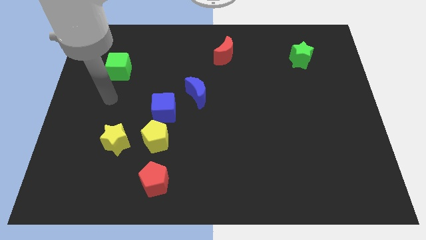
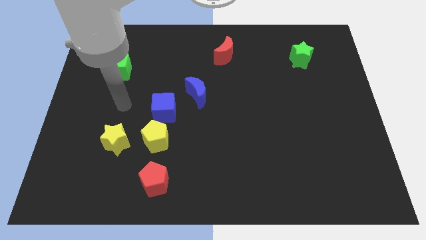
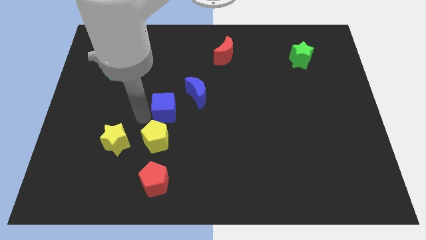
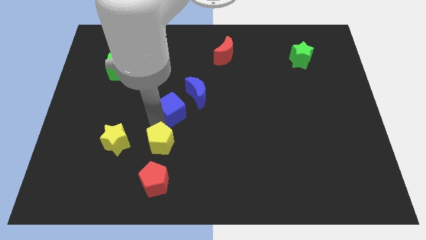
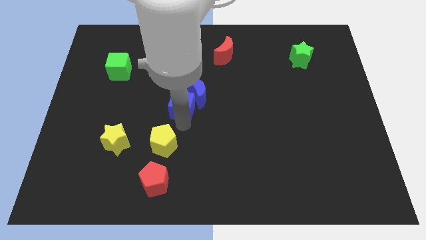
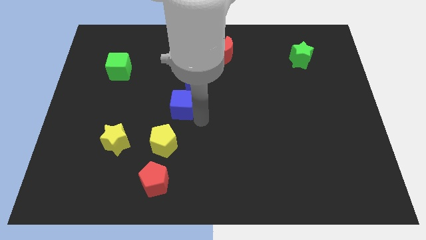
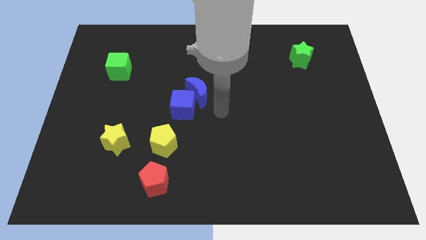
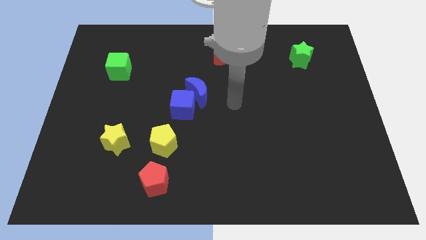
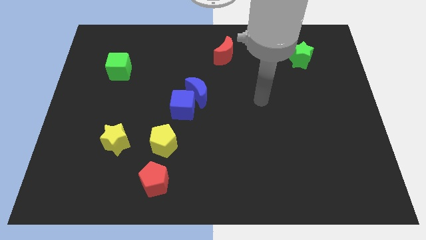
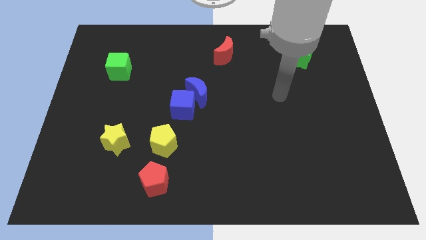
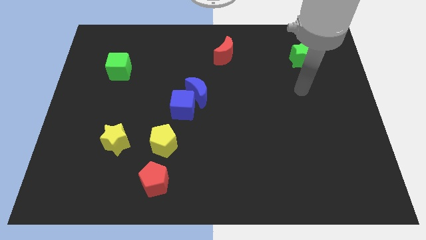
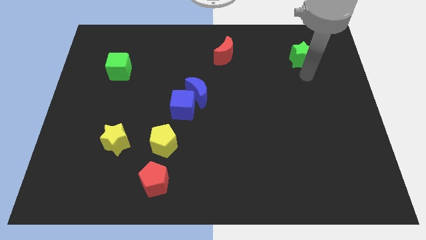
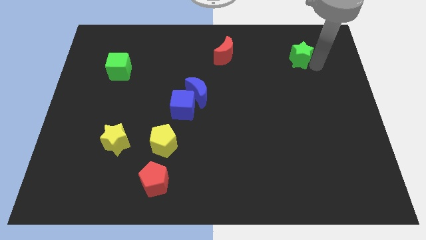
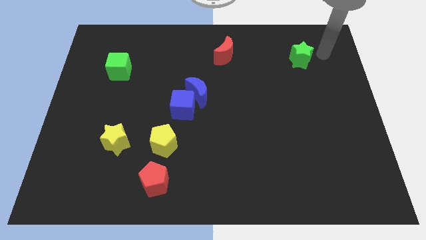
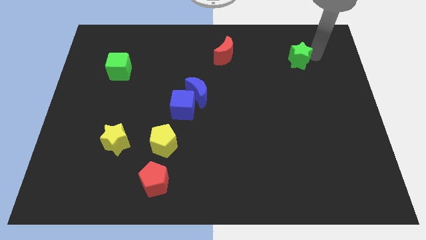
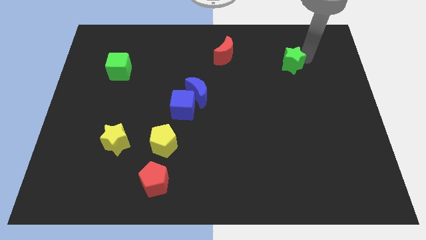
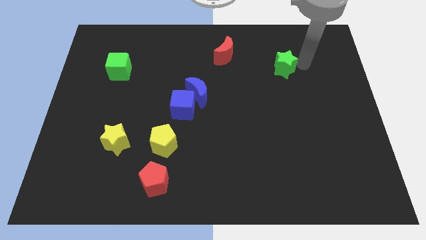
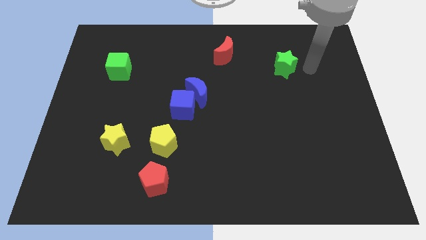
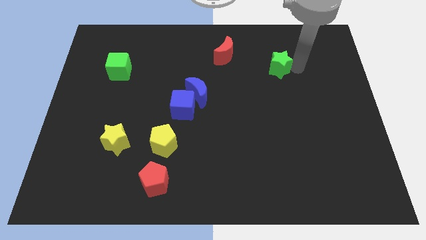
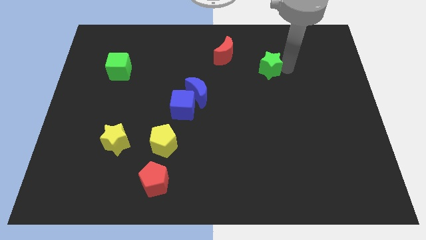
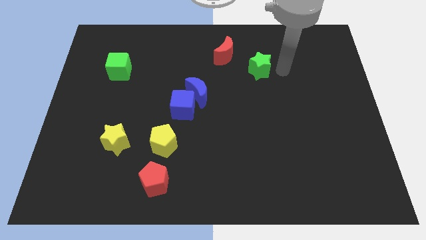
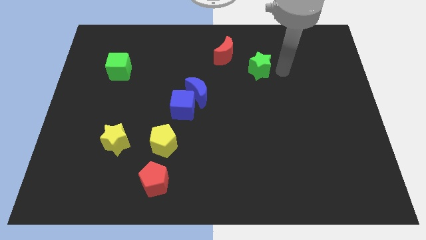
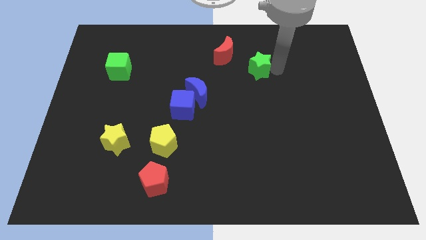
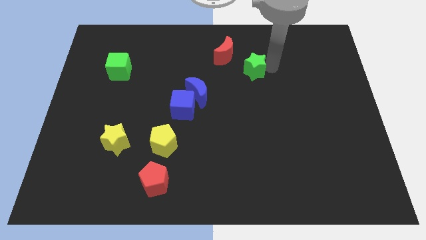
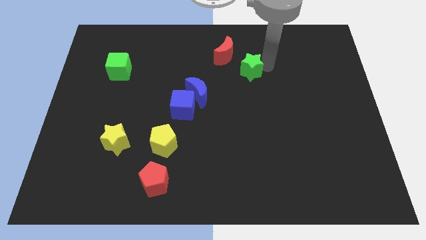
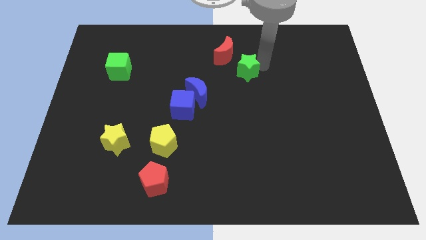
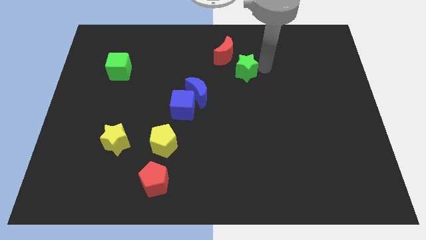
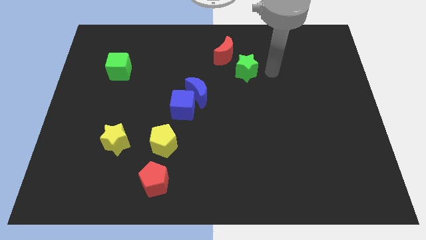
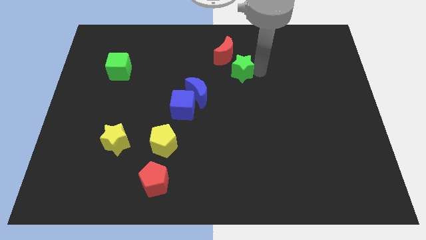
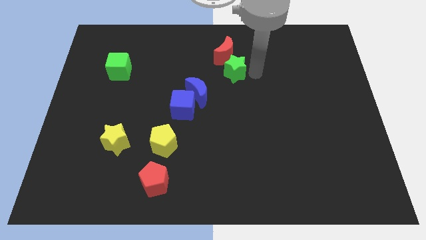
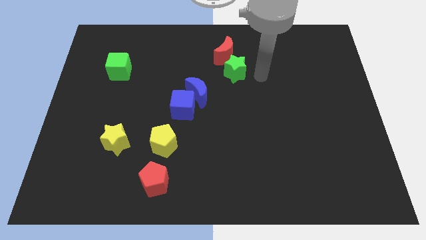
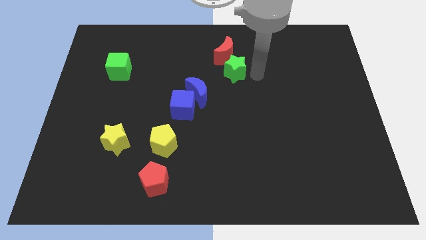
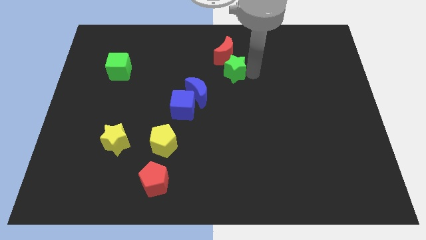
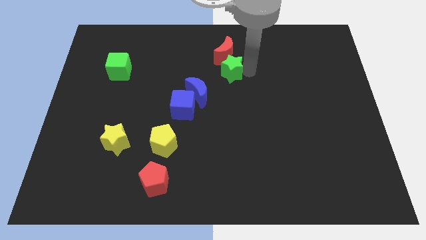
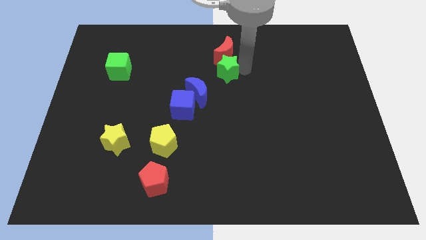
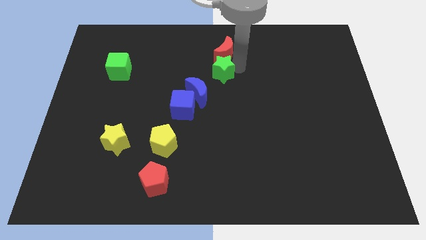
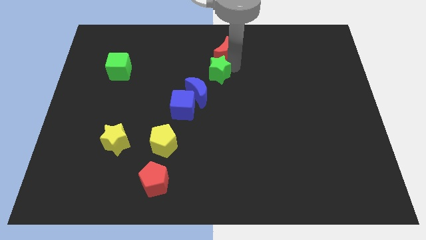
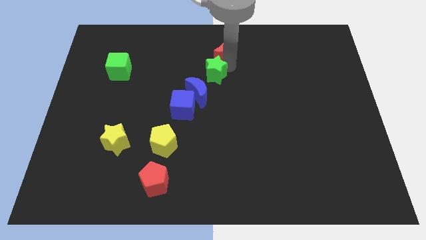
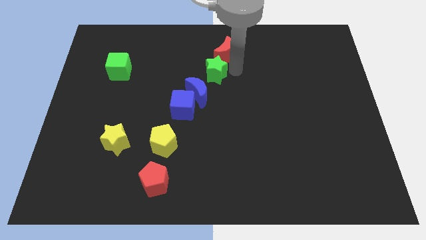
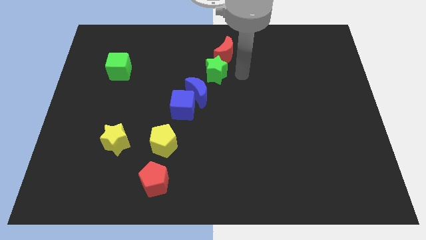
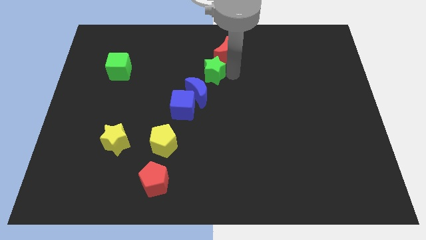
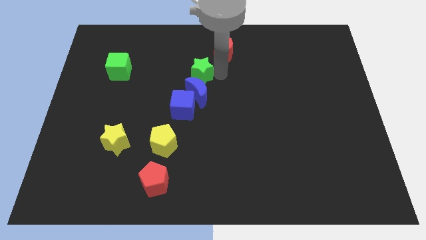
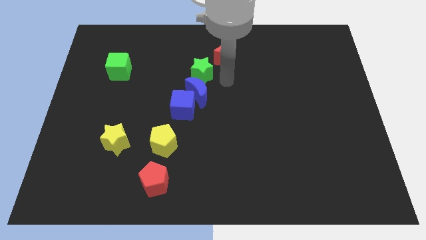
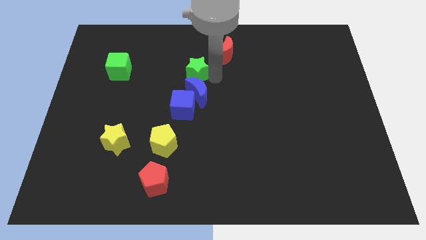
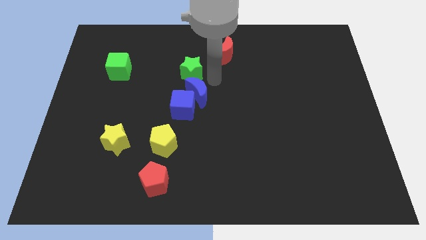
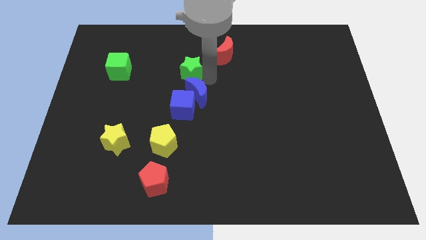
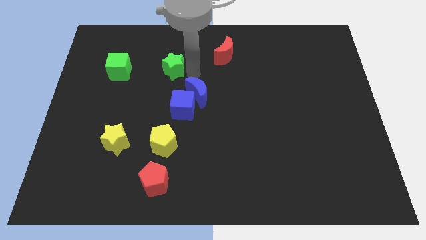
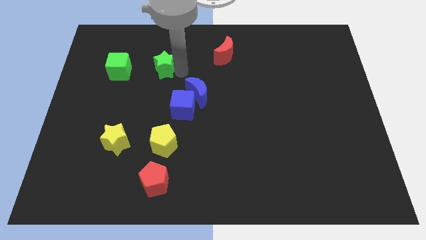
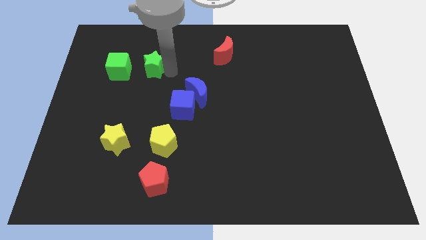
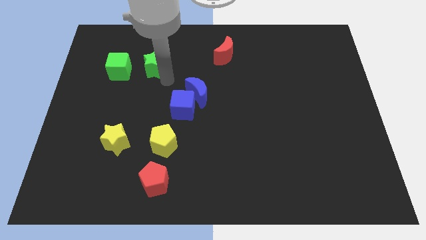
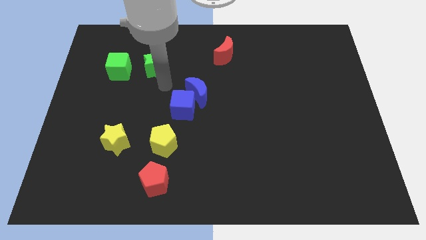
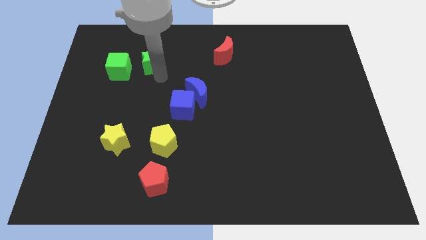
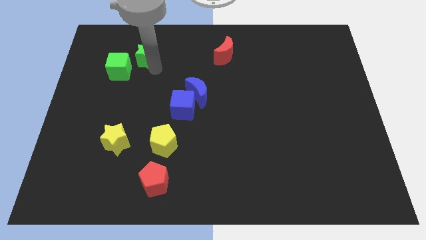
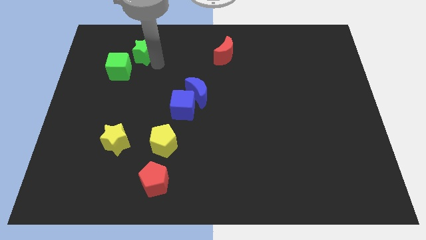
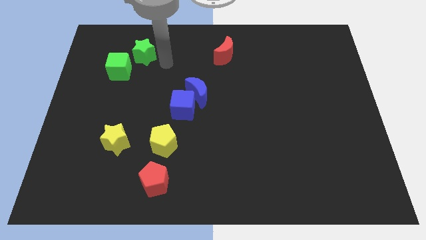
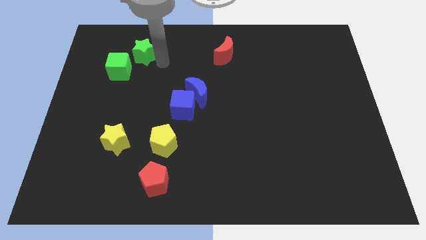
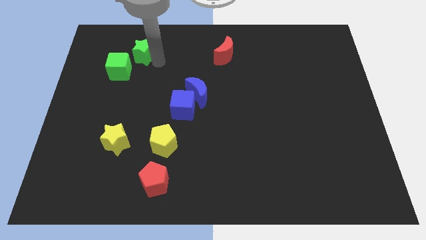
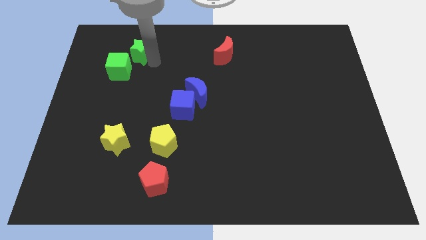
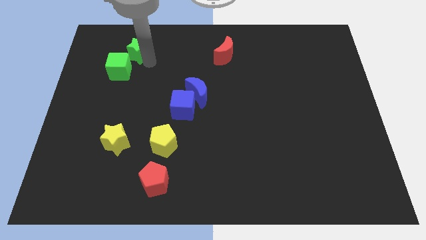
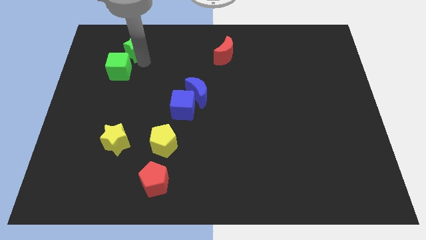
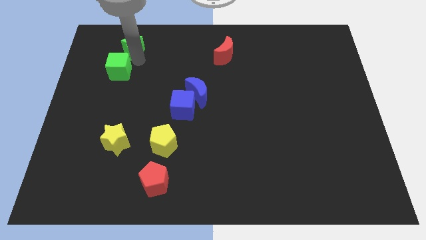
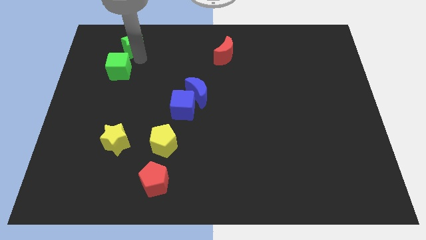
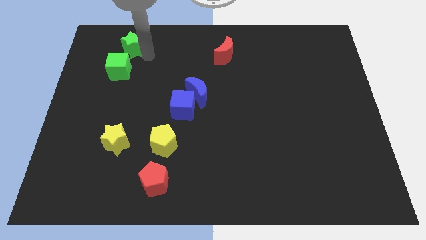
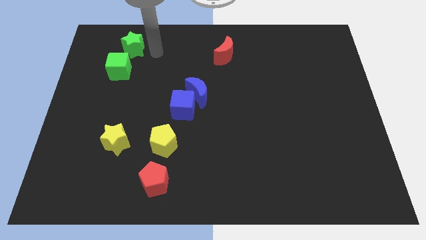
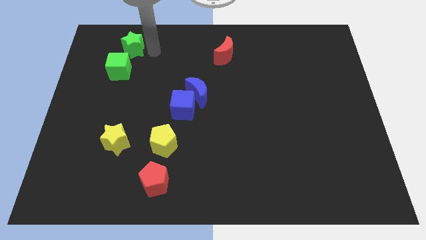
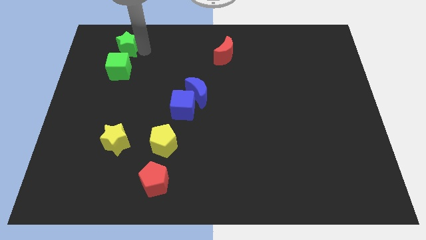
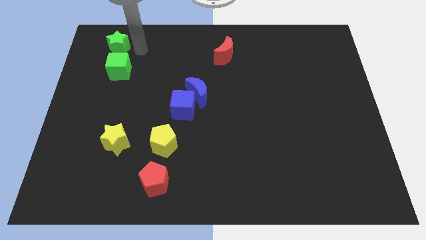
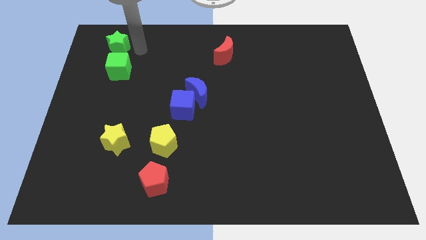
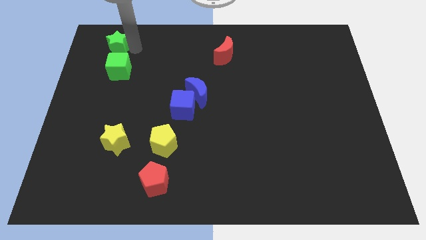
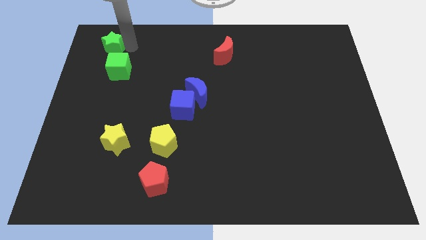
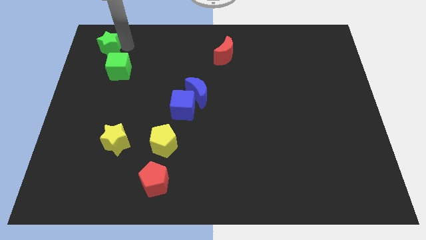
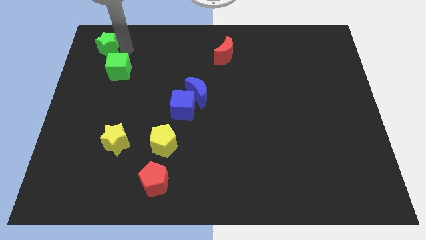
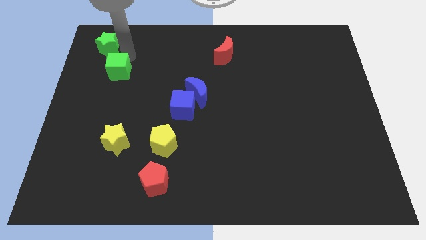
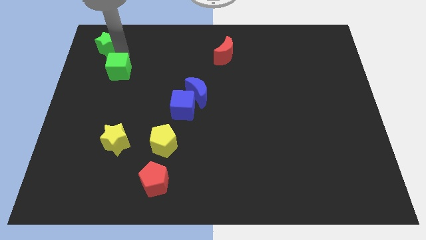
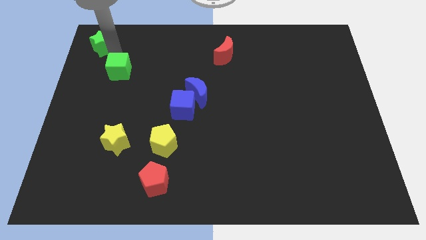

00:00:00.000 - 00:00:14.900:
push the green star to the top left
